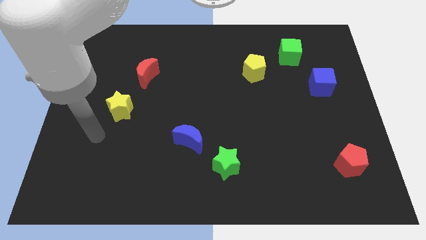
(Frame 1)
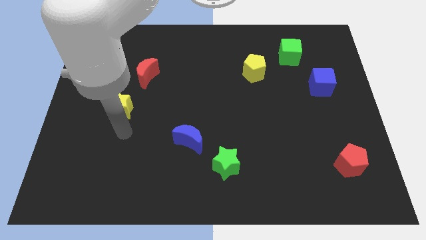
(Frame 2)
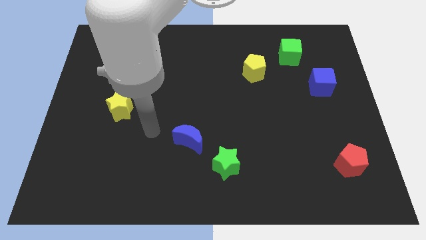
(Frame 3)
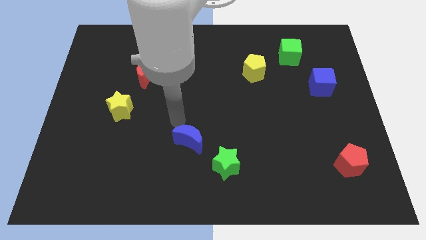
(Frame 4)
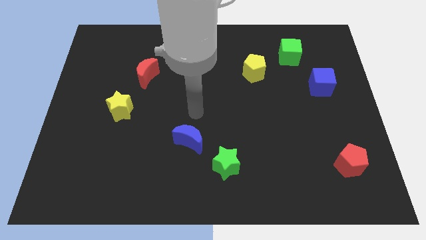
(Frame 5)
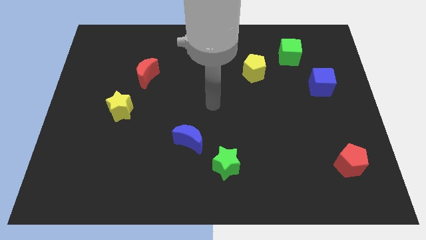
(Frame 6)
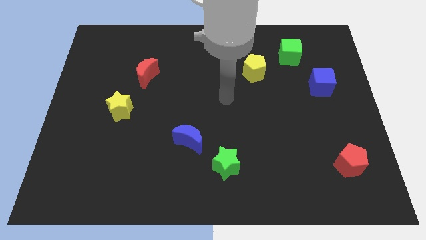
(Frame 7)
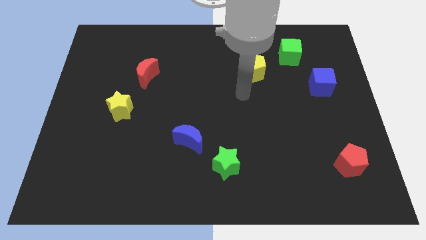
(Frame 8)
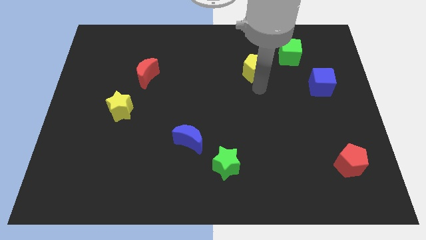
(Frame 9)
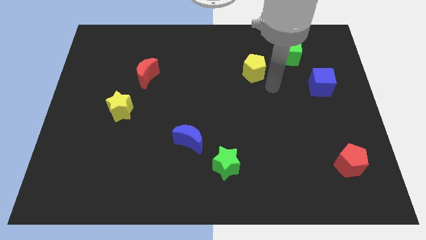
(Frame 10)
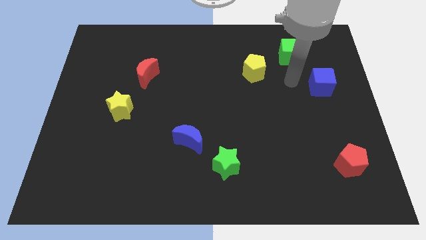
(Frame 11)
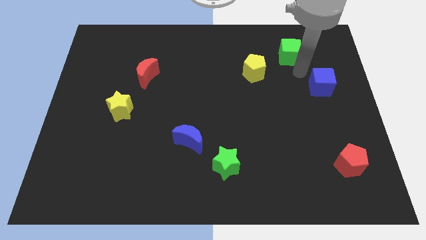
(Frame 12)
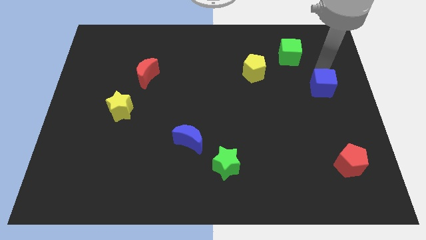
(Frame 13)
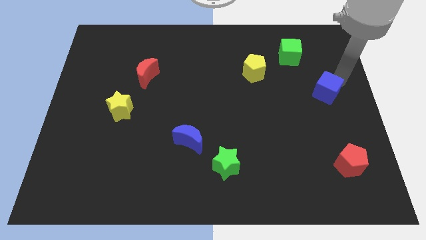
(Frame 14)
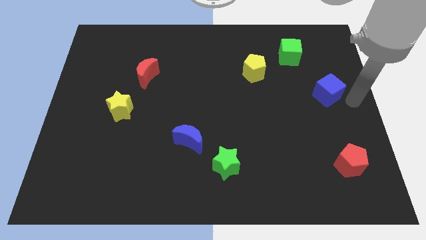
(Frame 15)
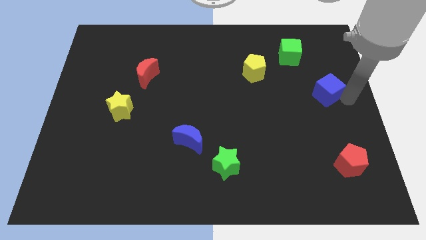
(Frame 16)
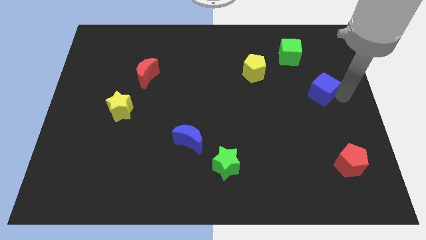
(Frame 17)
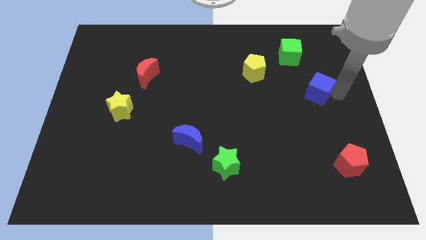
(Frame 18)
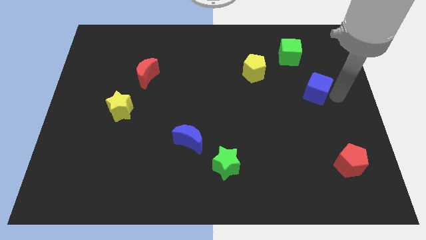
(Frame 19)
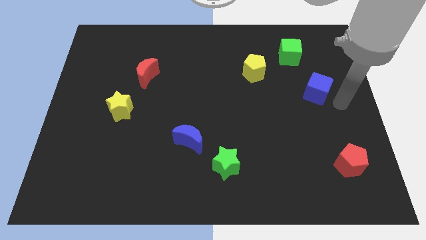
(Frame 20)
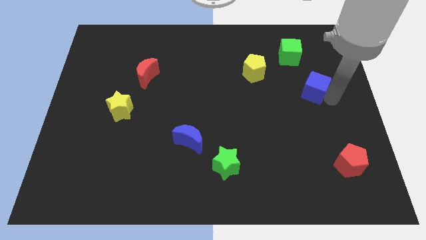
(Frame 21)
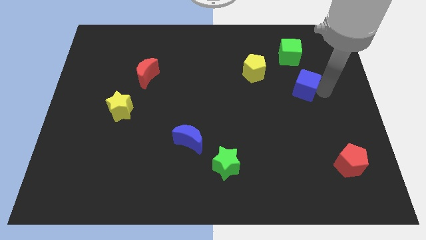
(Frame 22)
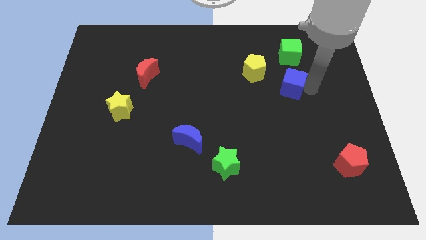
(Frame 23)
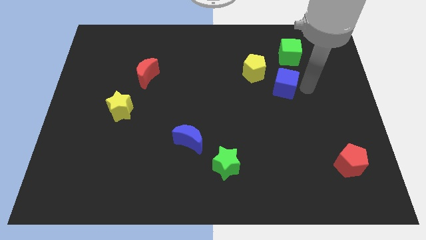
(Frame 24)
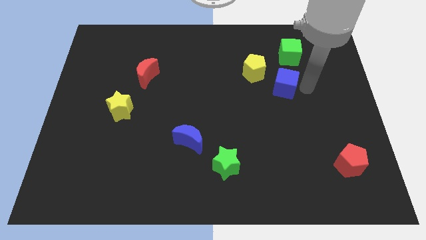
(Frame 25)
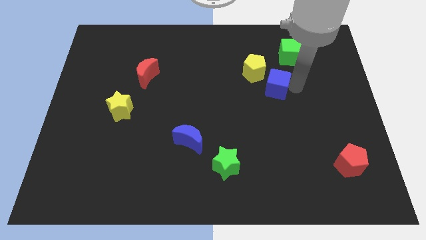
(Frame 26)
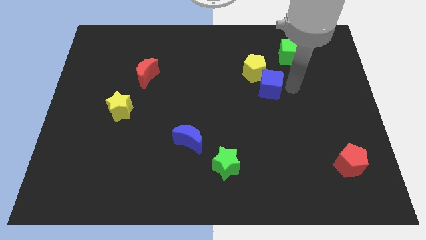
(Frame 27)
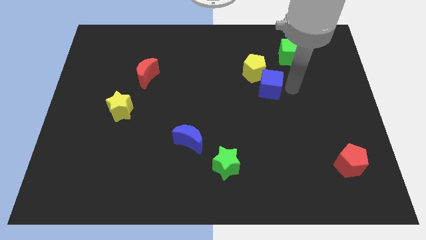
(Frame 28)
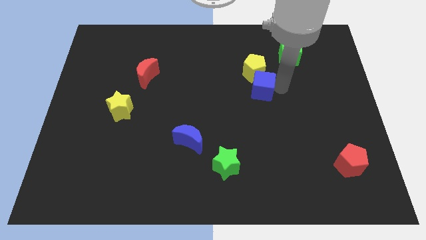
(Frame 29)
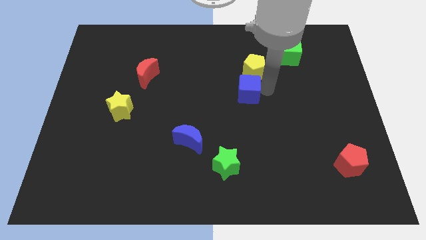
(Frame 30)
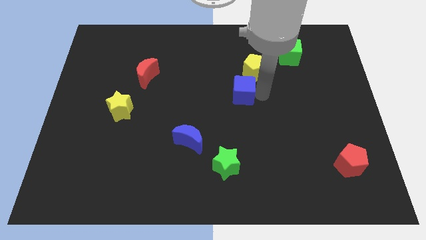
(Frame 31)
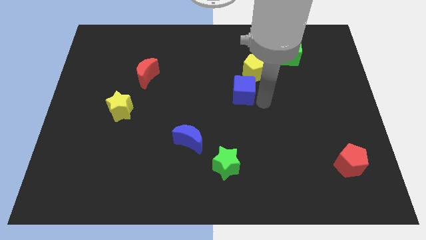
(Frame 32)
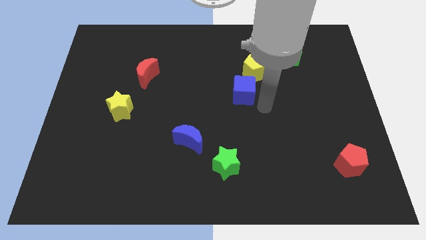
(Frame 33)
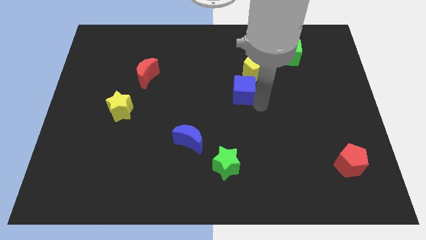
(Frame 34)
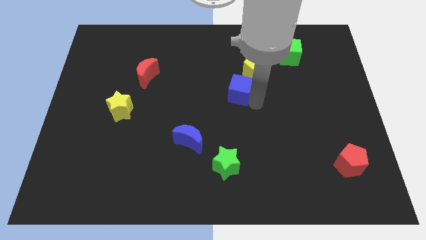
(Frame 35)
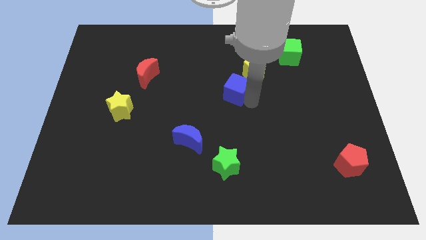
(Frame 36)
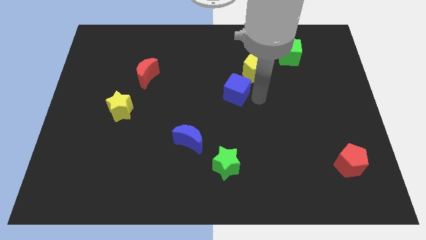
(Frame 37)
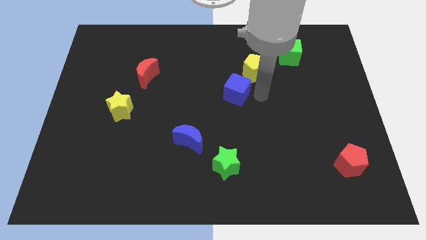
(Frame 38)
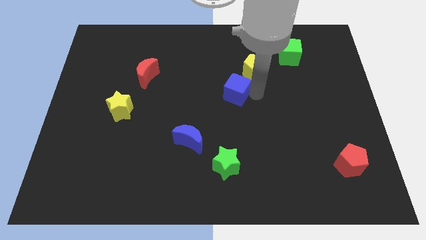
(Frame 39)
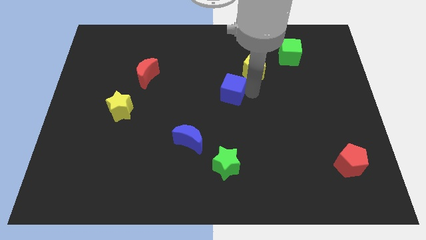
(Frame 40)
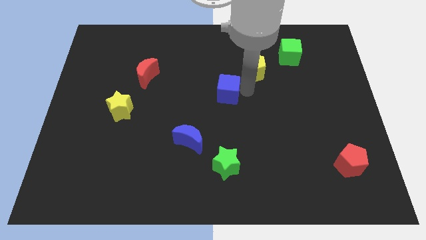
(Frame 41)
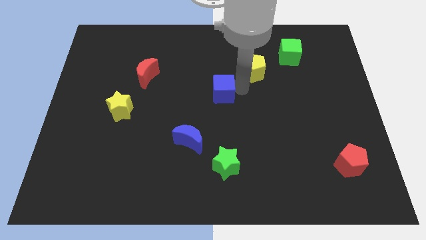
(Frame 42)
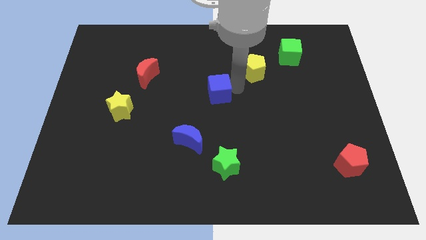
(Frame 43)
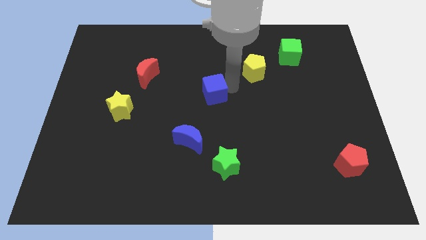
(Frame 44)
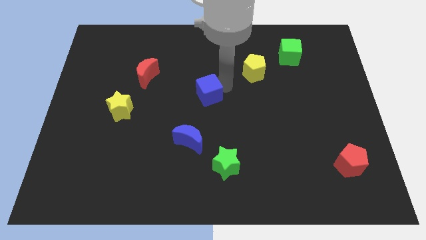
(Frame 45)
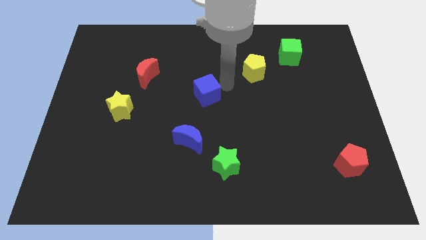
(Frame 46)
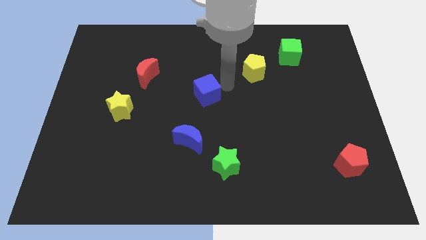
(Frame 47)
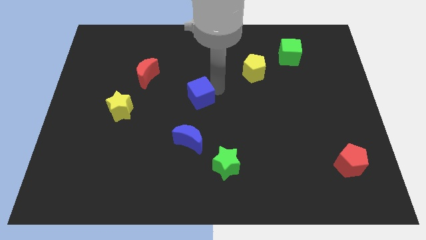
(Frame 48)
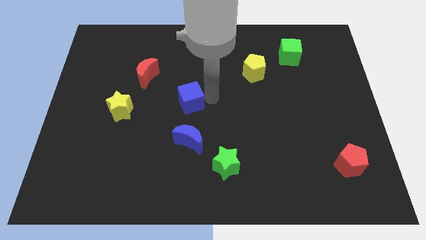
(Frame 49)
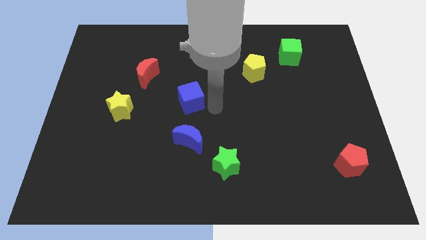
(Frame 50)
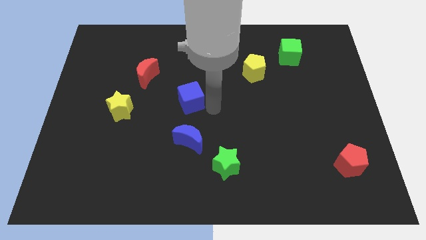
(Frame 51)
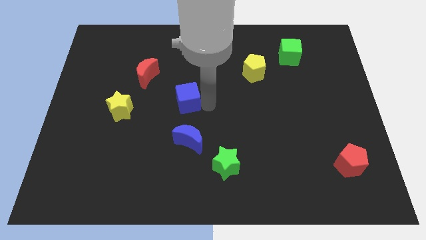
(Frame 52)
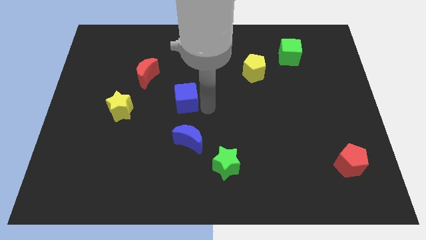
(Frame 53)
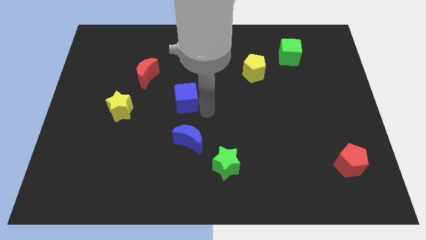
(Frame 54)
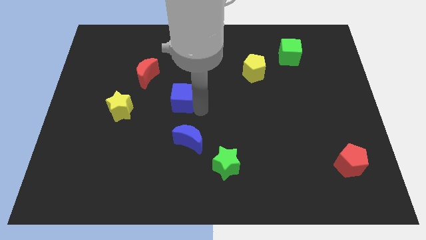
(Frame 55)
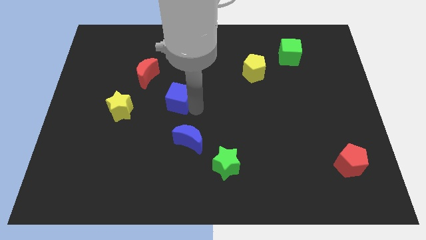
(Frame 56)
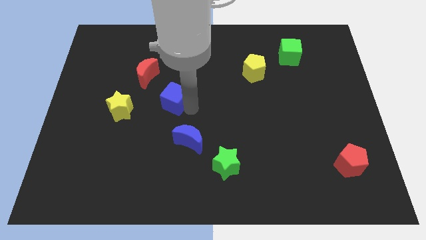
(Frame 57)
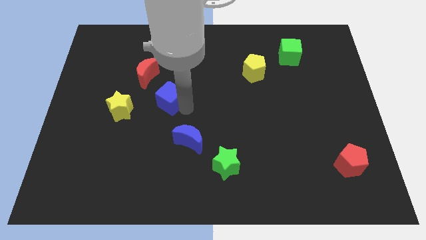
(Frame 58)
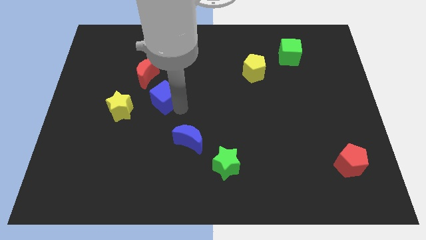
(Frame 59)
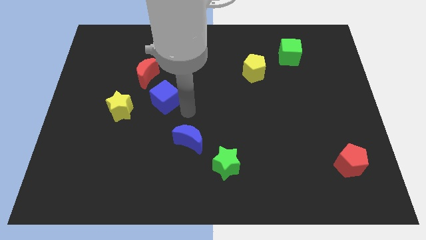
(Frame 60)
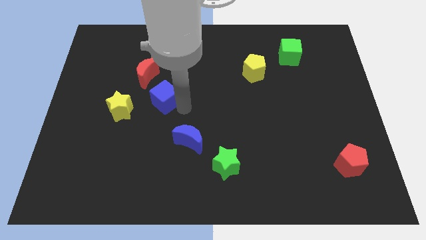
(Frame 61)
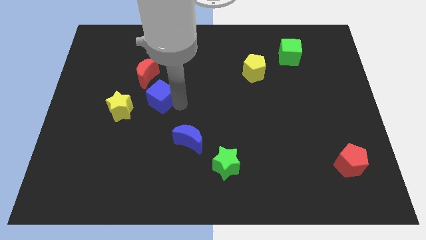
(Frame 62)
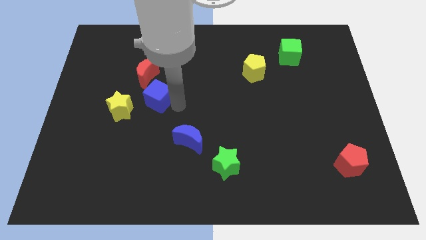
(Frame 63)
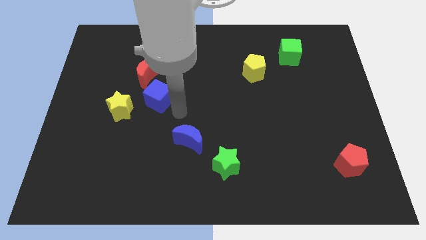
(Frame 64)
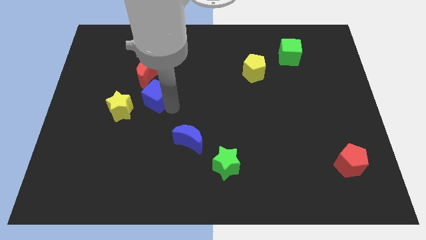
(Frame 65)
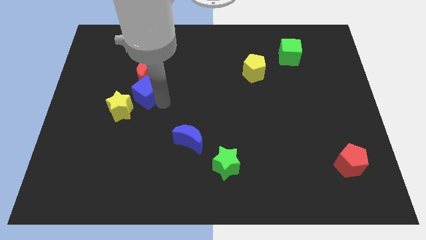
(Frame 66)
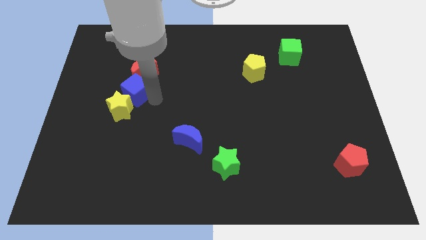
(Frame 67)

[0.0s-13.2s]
slide the blue cube to the top of the yellow star

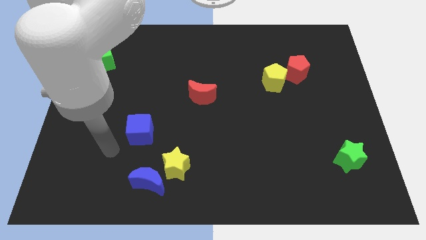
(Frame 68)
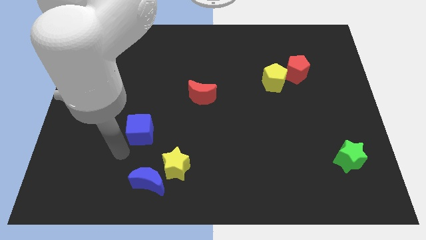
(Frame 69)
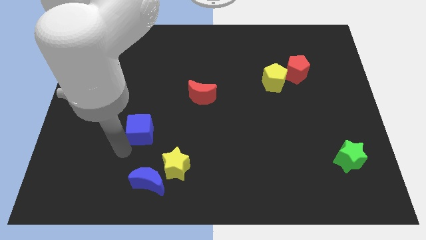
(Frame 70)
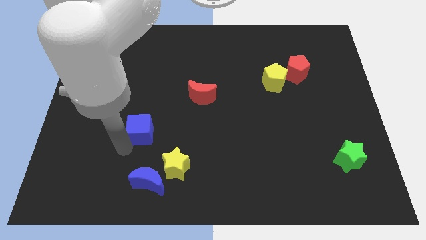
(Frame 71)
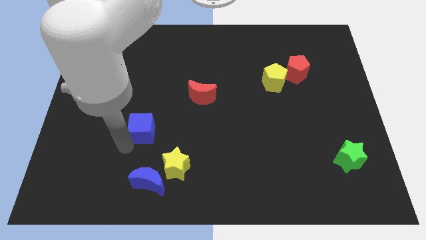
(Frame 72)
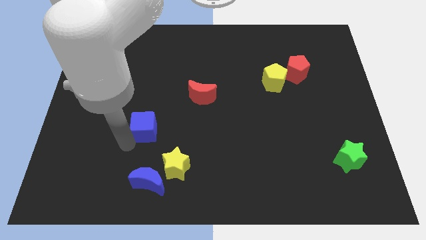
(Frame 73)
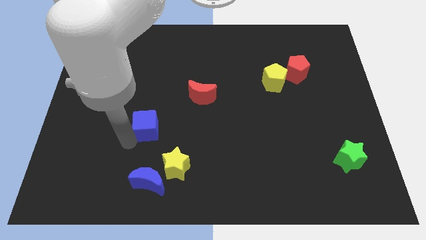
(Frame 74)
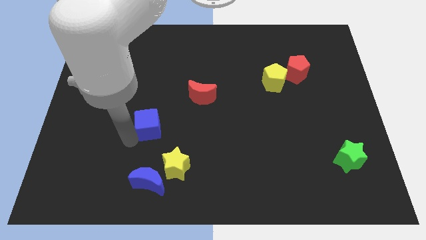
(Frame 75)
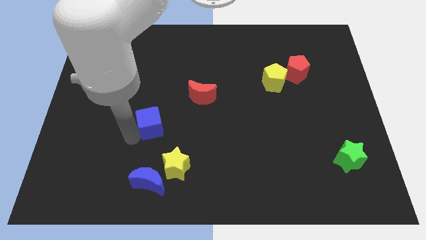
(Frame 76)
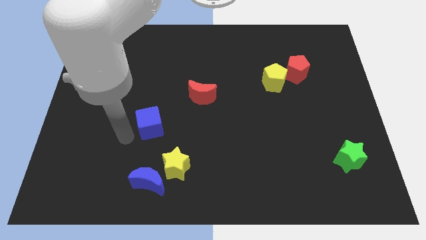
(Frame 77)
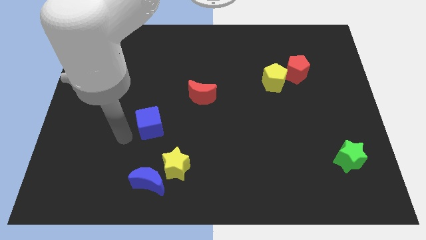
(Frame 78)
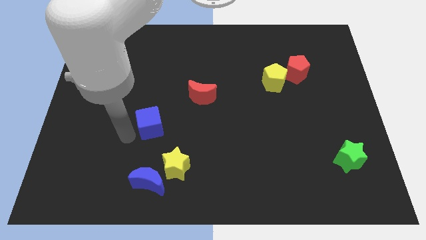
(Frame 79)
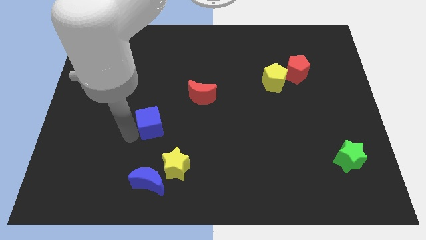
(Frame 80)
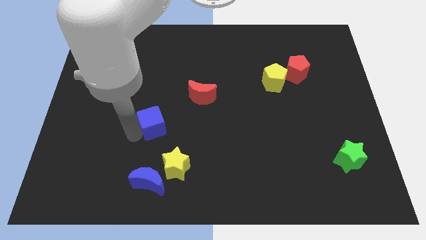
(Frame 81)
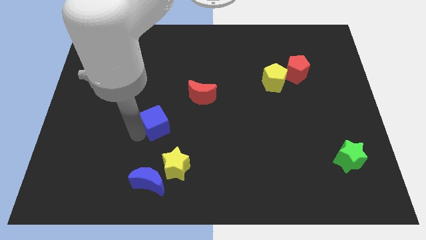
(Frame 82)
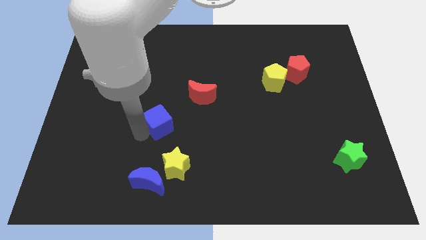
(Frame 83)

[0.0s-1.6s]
slide the blue cube diagonally down and to the left of the red moon
